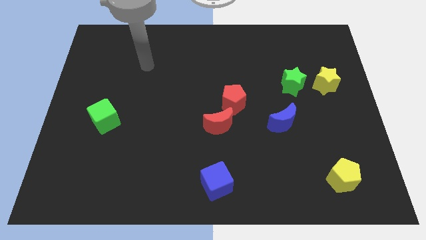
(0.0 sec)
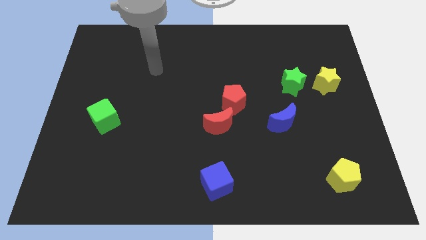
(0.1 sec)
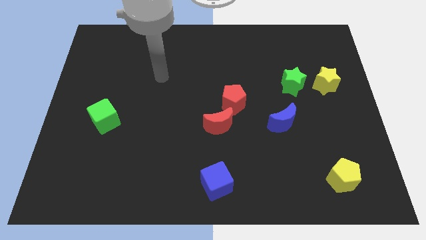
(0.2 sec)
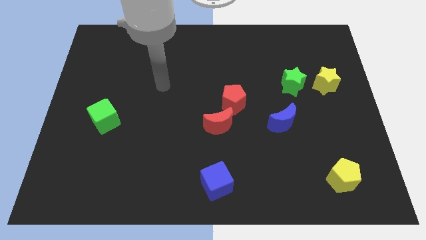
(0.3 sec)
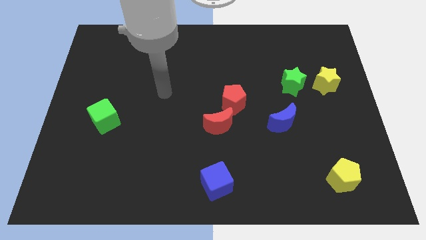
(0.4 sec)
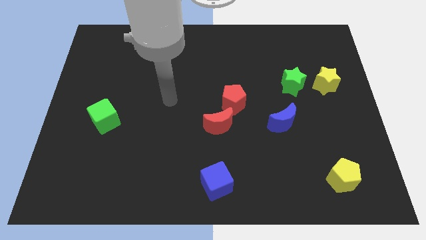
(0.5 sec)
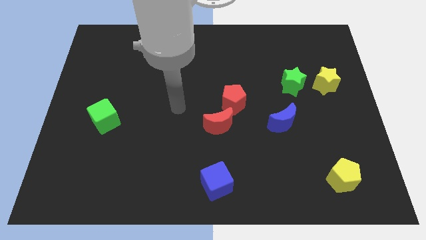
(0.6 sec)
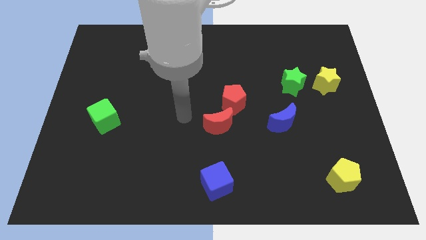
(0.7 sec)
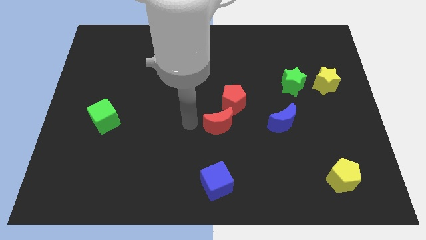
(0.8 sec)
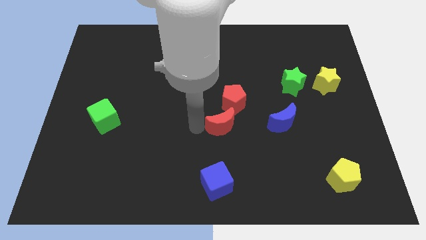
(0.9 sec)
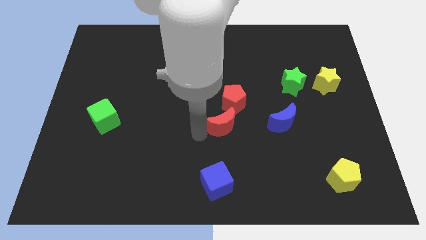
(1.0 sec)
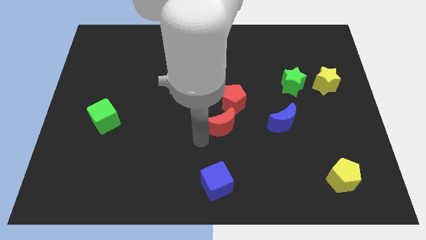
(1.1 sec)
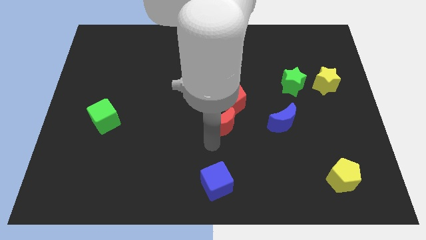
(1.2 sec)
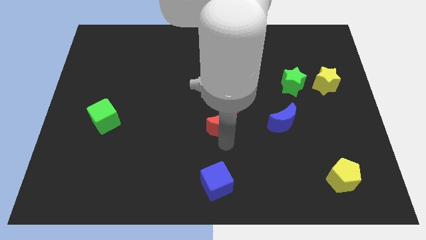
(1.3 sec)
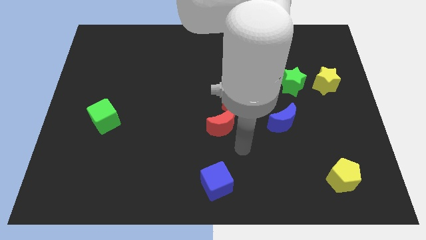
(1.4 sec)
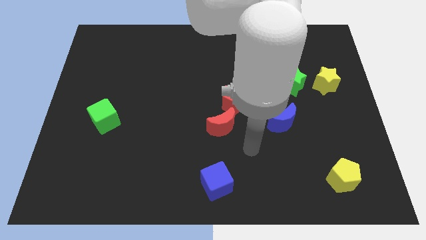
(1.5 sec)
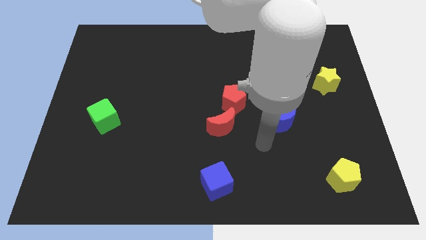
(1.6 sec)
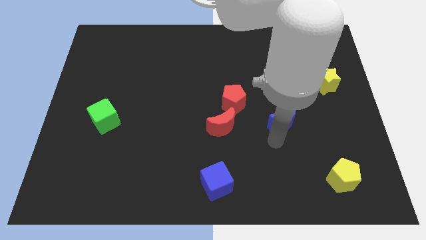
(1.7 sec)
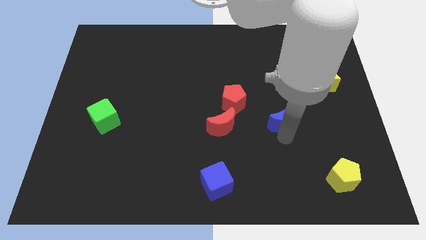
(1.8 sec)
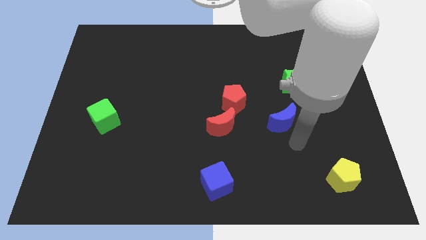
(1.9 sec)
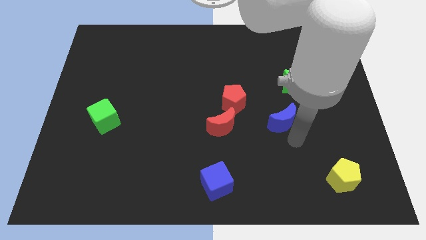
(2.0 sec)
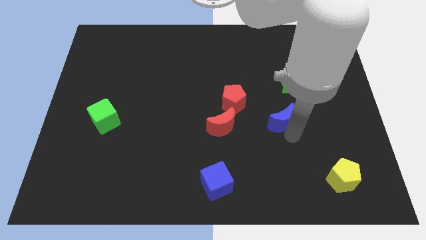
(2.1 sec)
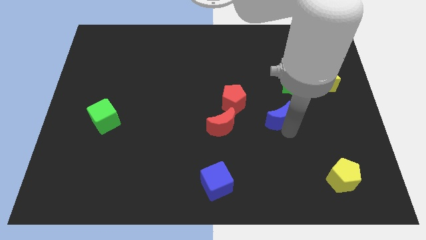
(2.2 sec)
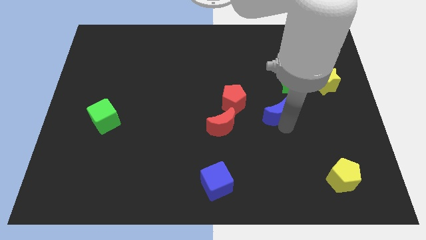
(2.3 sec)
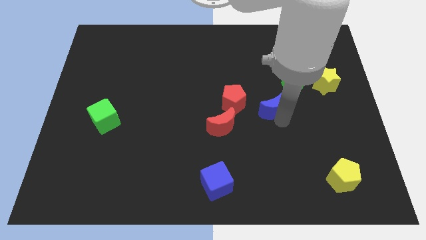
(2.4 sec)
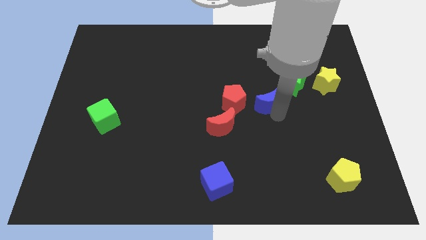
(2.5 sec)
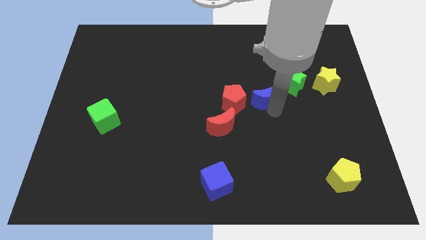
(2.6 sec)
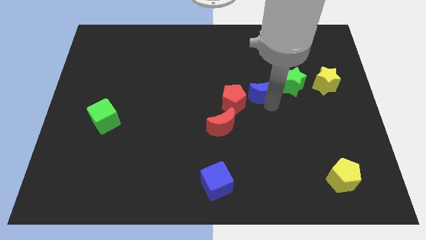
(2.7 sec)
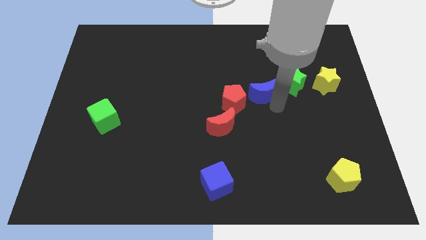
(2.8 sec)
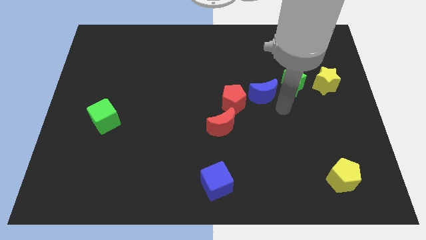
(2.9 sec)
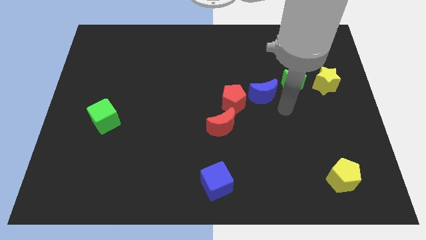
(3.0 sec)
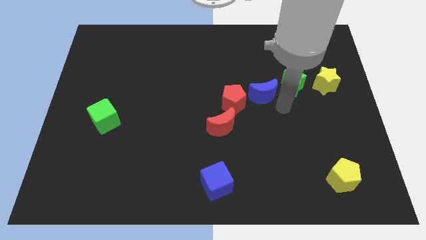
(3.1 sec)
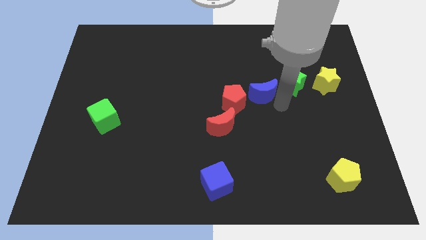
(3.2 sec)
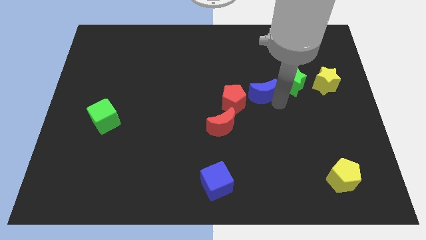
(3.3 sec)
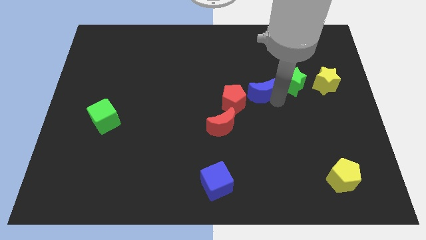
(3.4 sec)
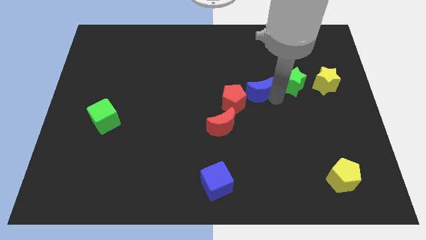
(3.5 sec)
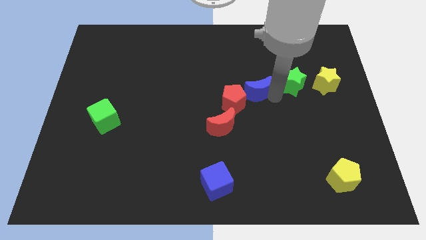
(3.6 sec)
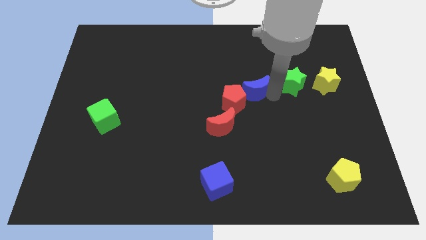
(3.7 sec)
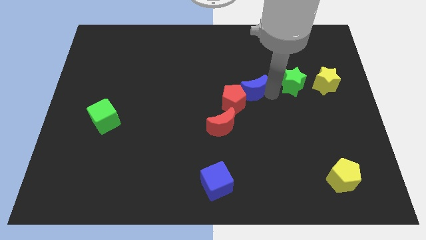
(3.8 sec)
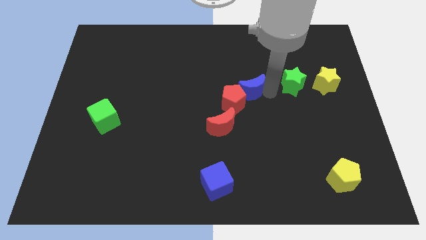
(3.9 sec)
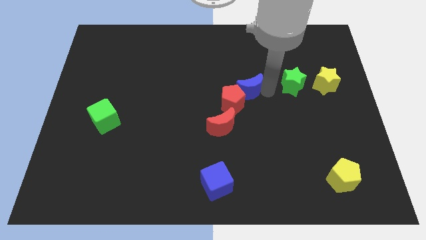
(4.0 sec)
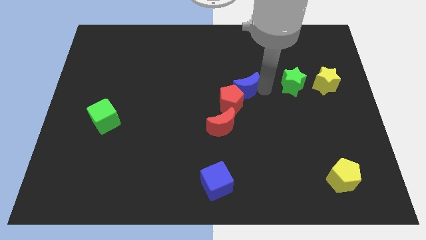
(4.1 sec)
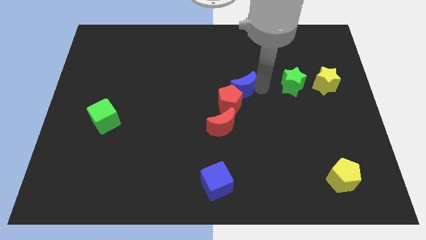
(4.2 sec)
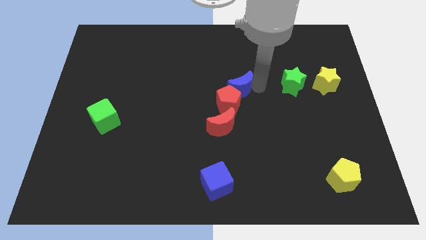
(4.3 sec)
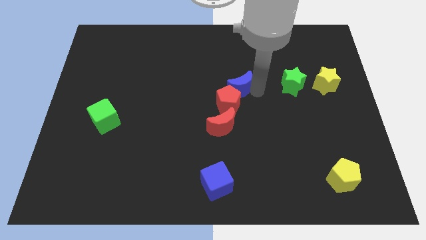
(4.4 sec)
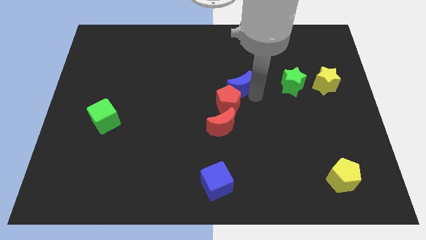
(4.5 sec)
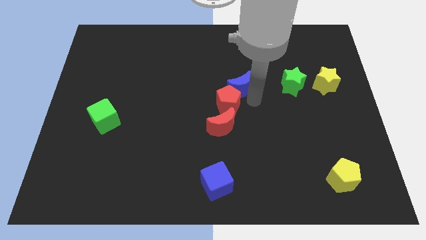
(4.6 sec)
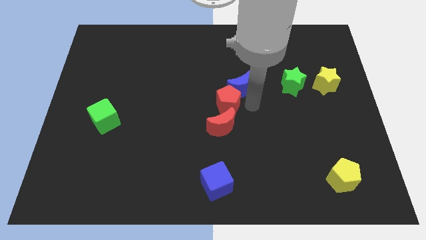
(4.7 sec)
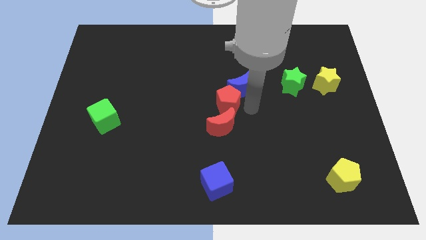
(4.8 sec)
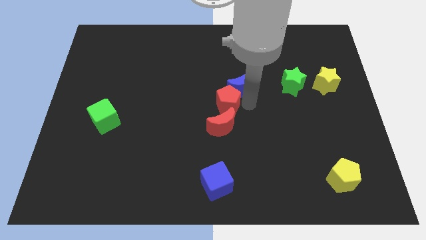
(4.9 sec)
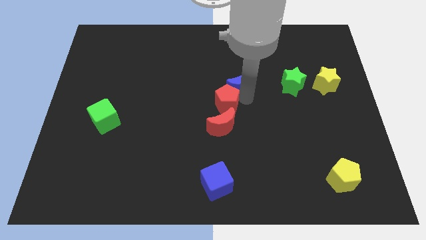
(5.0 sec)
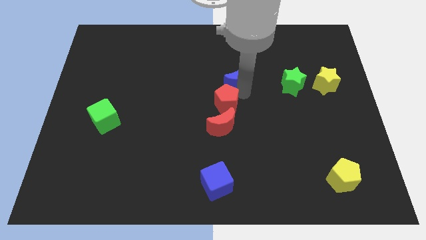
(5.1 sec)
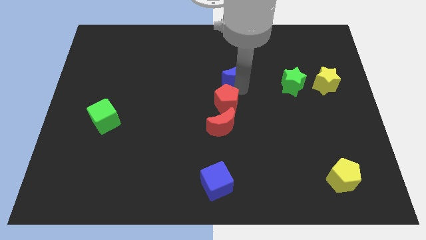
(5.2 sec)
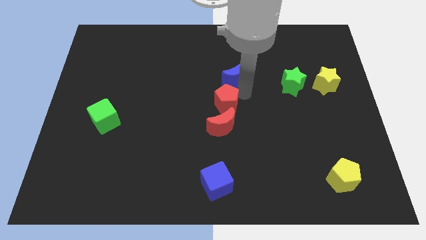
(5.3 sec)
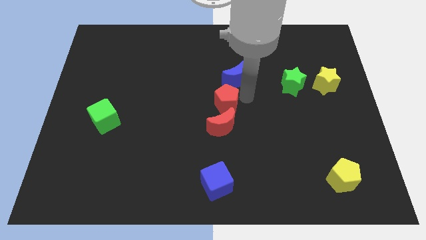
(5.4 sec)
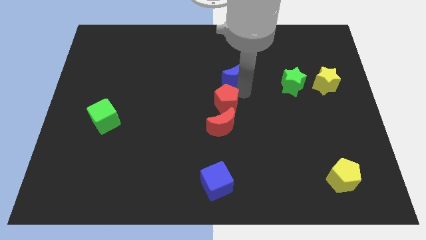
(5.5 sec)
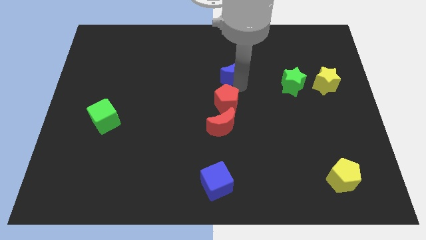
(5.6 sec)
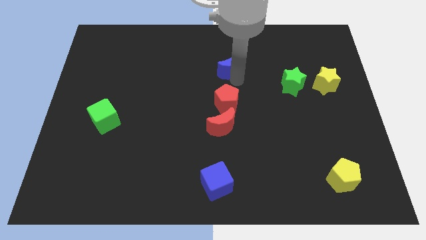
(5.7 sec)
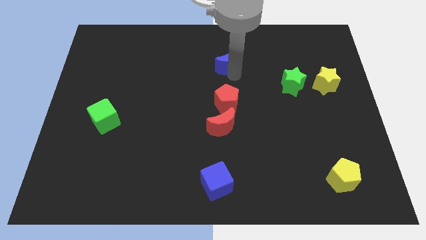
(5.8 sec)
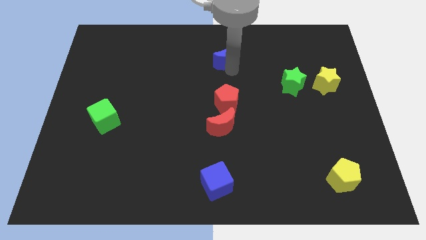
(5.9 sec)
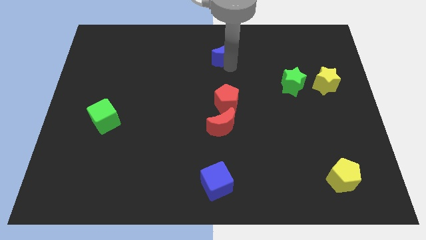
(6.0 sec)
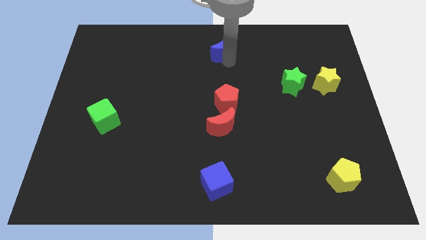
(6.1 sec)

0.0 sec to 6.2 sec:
put the blue moon to the towards your base

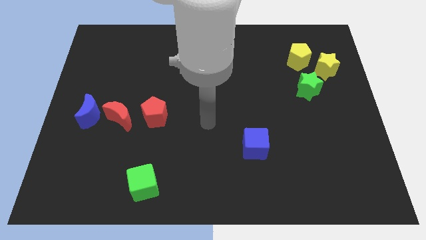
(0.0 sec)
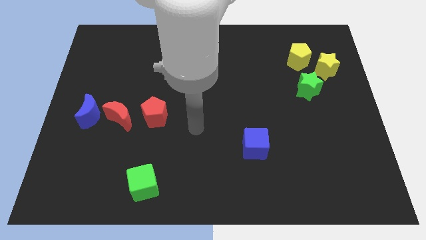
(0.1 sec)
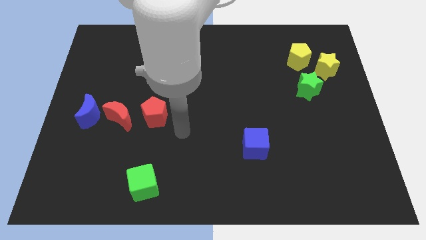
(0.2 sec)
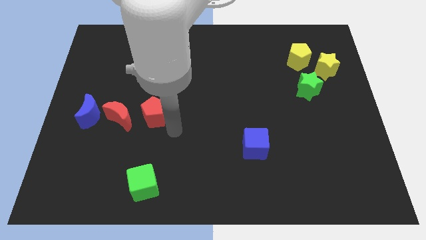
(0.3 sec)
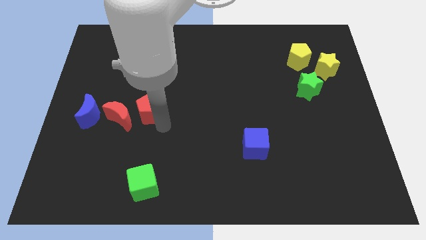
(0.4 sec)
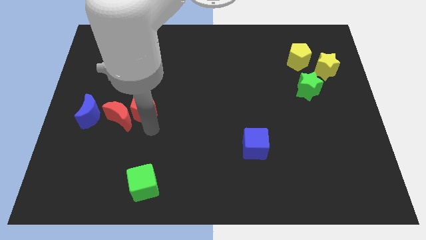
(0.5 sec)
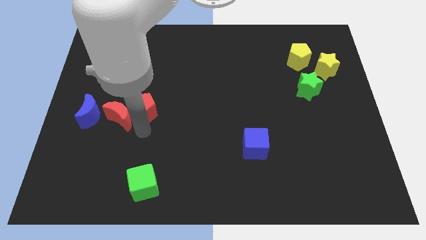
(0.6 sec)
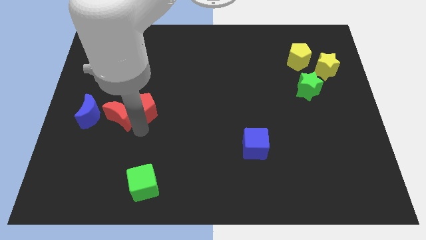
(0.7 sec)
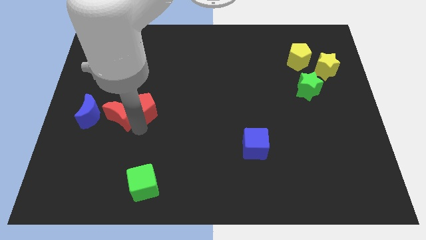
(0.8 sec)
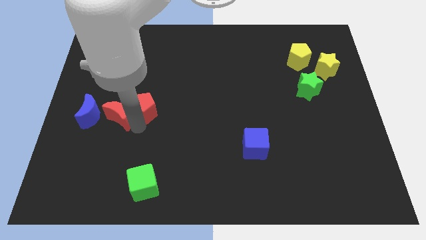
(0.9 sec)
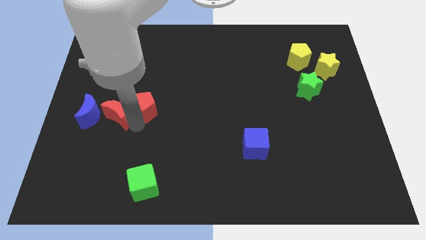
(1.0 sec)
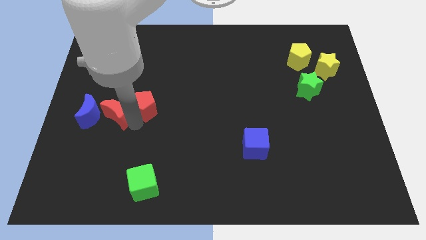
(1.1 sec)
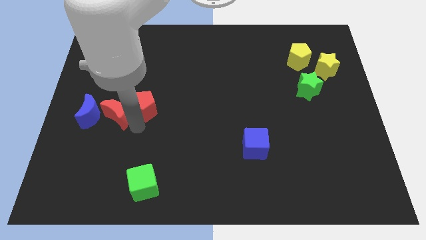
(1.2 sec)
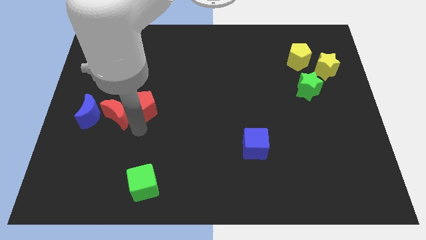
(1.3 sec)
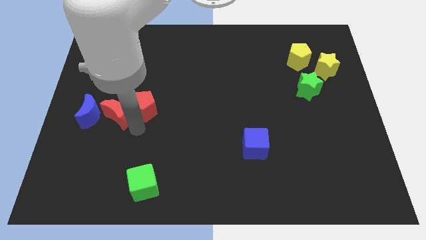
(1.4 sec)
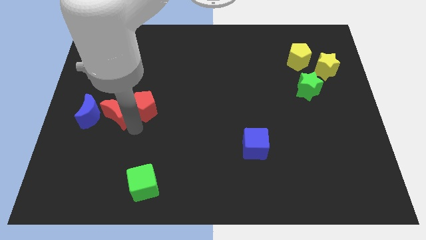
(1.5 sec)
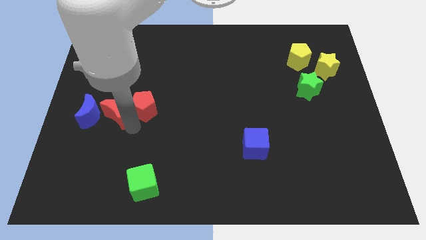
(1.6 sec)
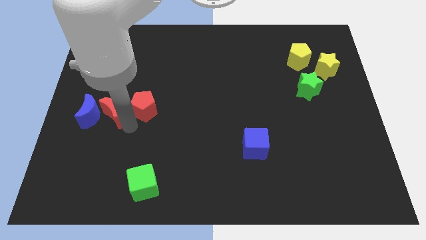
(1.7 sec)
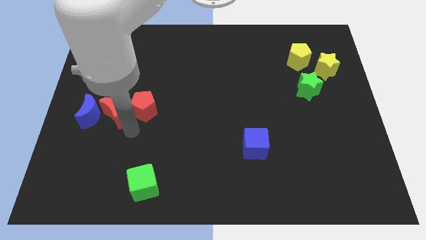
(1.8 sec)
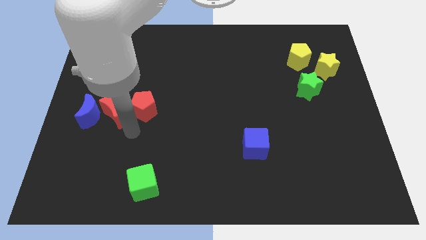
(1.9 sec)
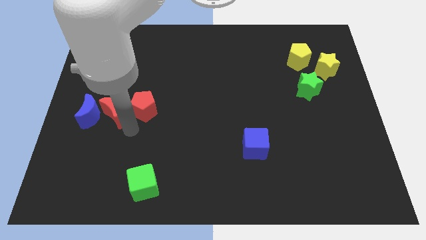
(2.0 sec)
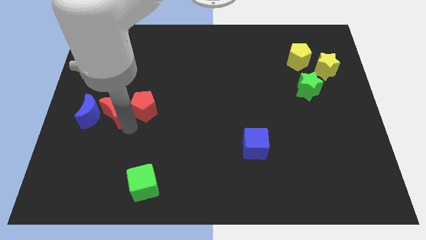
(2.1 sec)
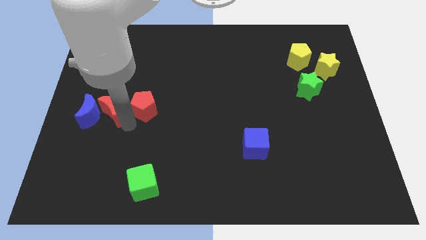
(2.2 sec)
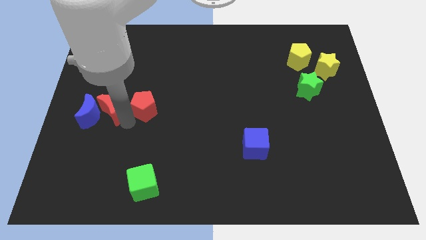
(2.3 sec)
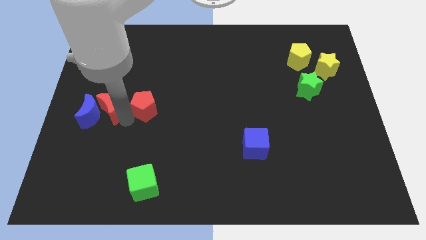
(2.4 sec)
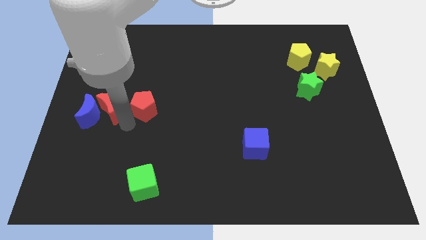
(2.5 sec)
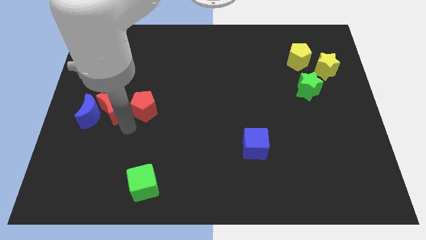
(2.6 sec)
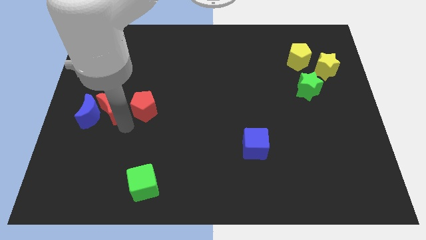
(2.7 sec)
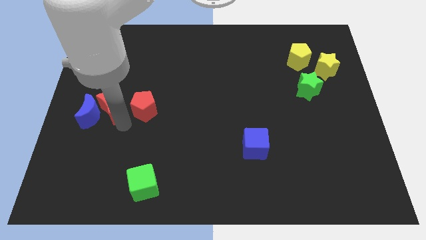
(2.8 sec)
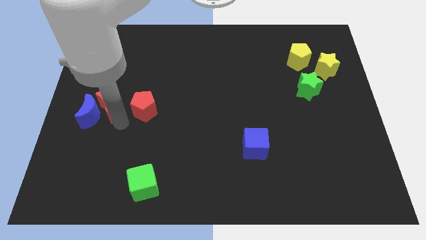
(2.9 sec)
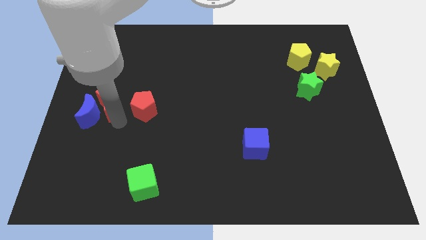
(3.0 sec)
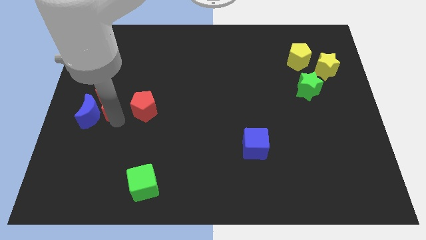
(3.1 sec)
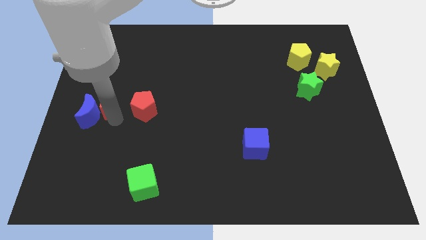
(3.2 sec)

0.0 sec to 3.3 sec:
move the red moon to the left side of the board
